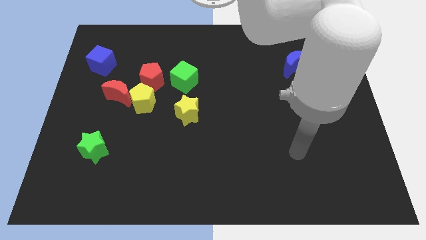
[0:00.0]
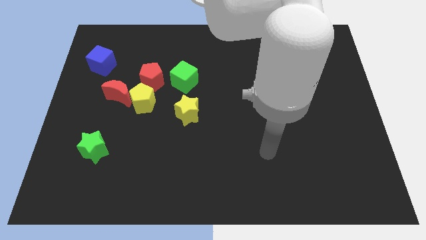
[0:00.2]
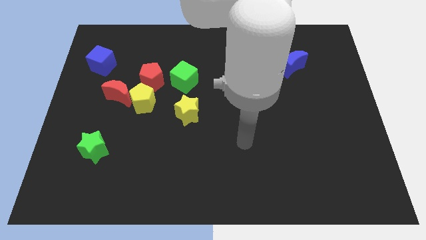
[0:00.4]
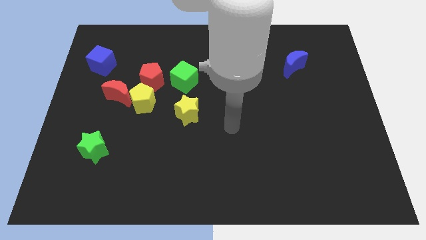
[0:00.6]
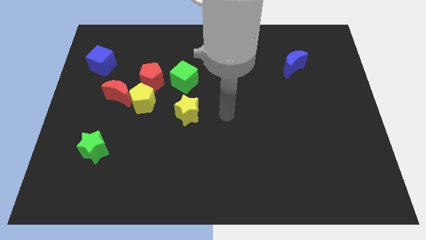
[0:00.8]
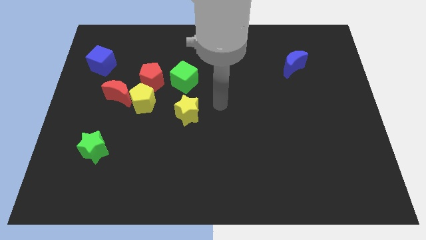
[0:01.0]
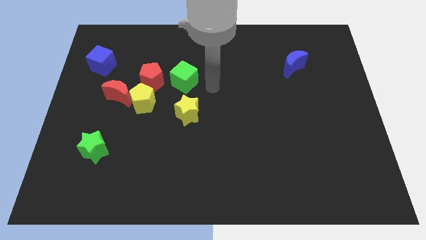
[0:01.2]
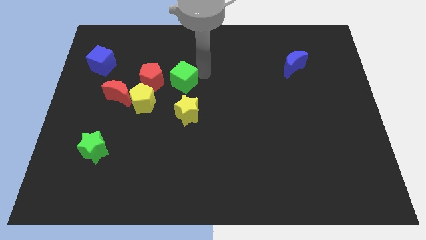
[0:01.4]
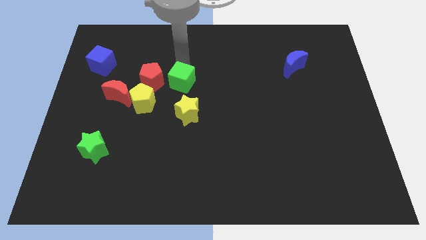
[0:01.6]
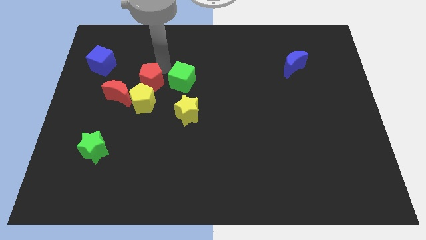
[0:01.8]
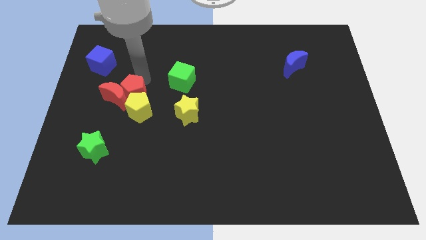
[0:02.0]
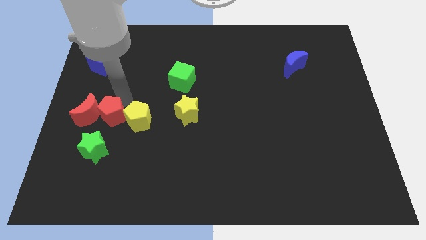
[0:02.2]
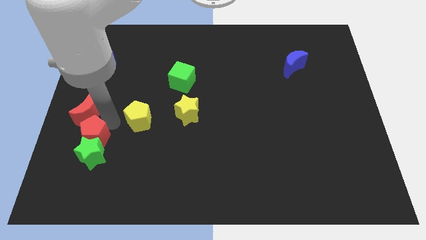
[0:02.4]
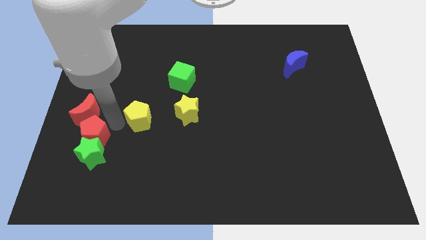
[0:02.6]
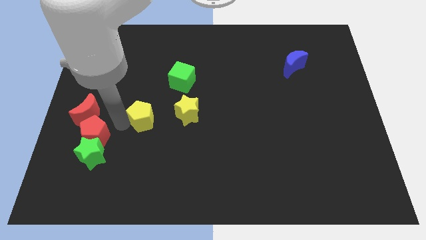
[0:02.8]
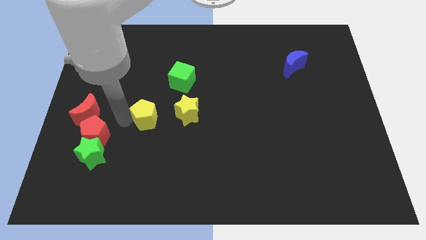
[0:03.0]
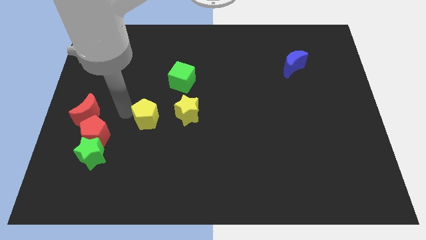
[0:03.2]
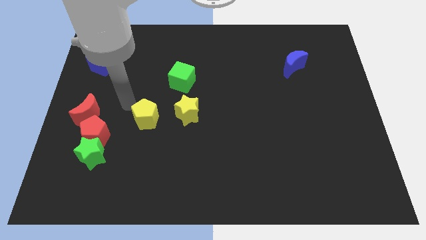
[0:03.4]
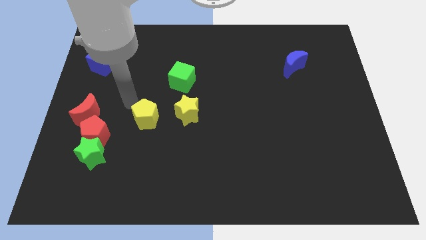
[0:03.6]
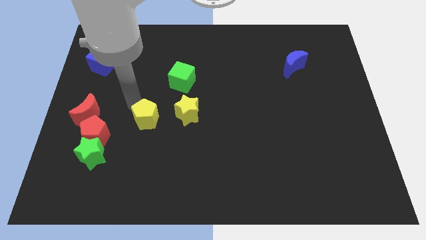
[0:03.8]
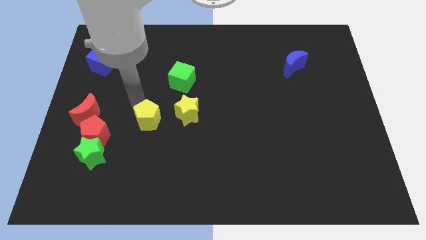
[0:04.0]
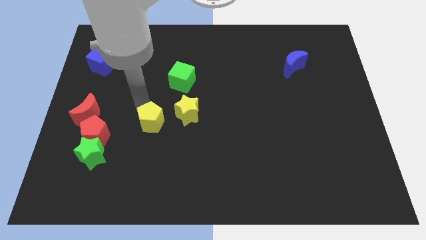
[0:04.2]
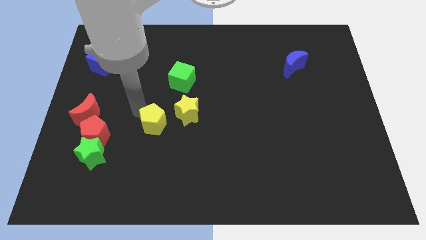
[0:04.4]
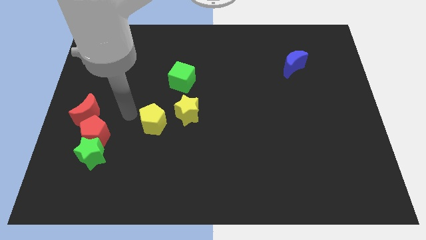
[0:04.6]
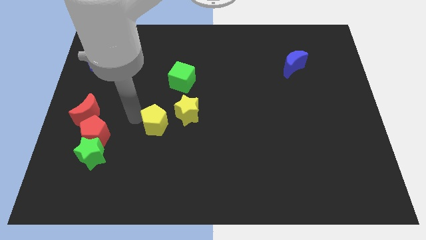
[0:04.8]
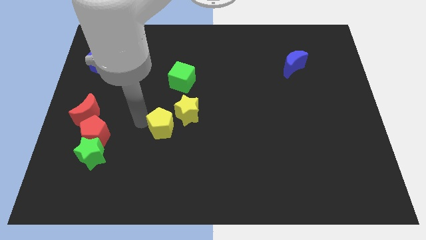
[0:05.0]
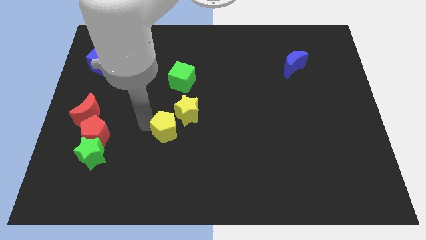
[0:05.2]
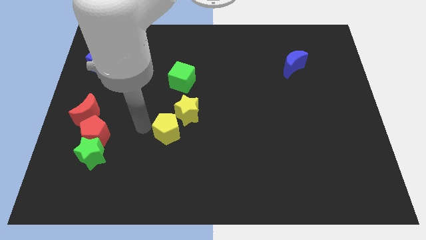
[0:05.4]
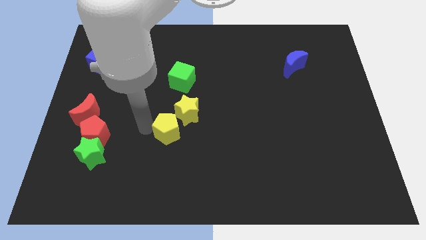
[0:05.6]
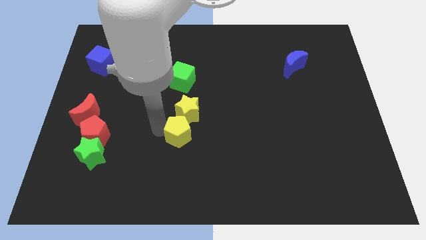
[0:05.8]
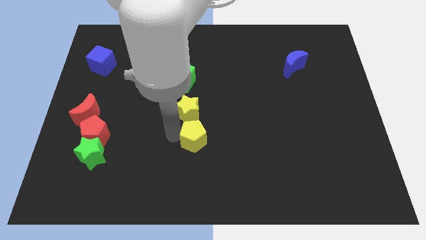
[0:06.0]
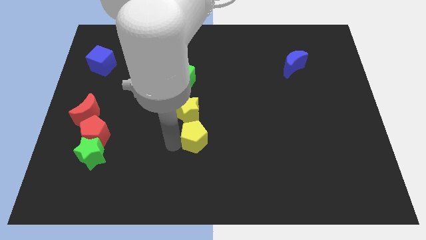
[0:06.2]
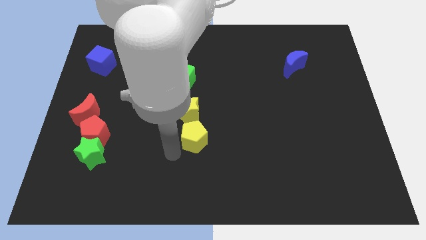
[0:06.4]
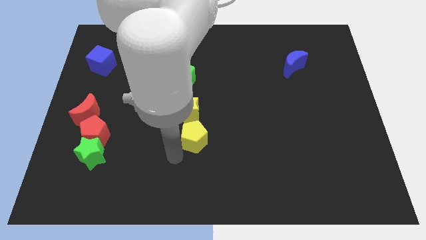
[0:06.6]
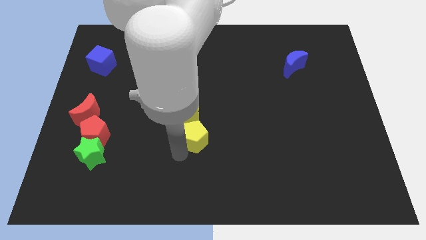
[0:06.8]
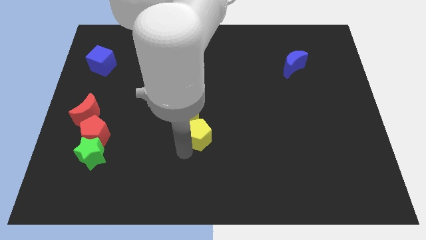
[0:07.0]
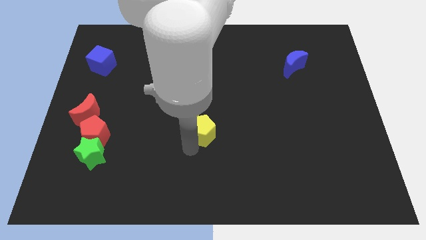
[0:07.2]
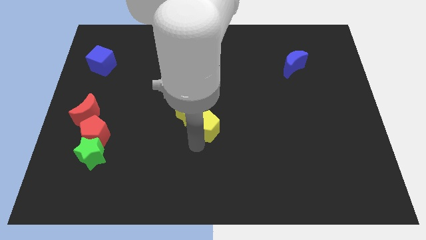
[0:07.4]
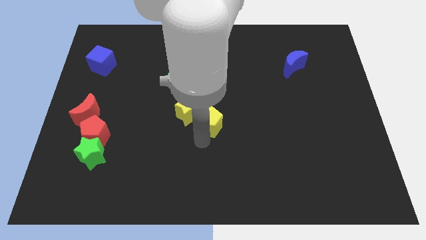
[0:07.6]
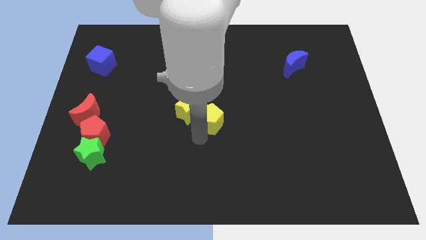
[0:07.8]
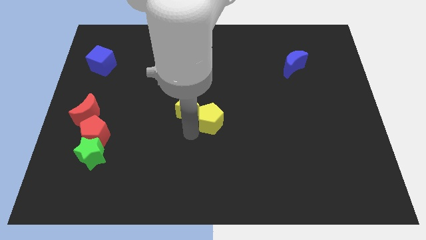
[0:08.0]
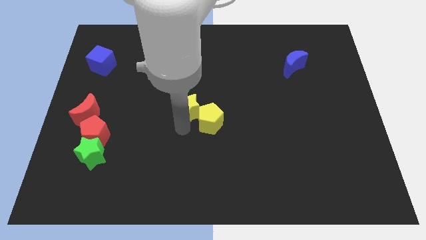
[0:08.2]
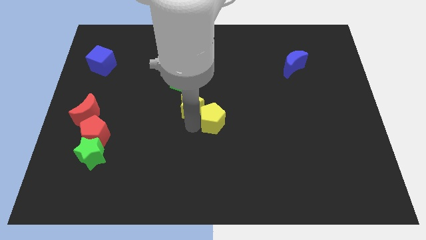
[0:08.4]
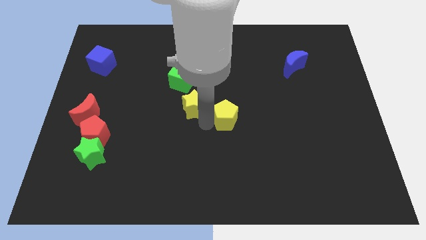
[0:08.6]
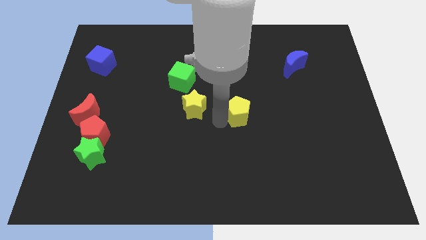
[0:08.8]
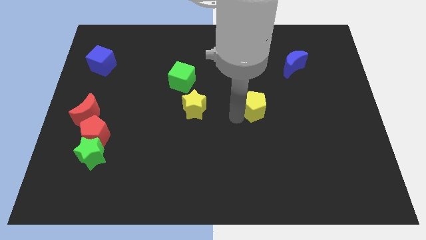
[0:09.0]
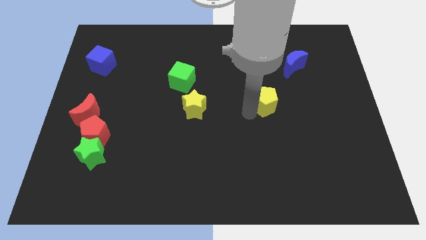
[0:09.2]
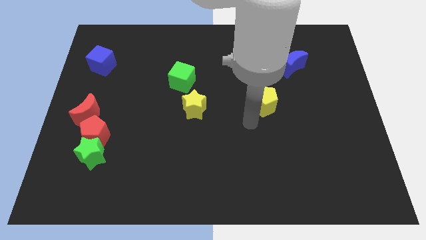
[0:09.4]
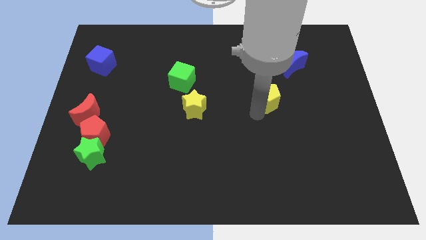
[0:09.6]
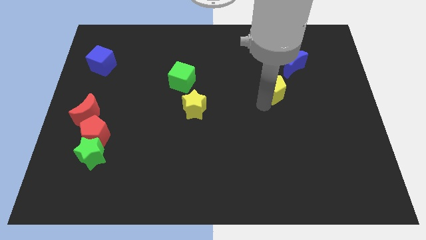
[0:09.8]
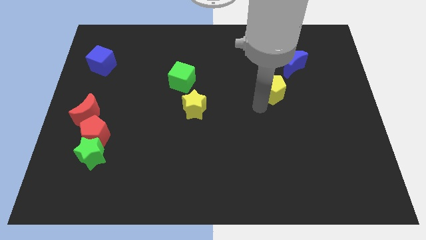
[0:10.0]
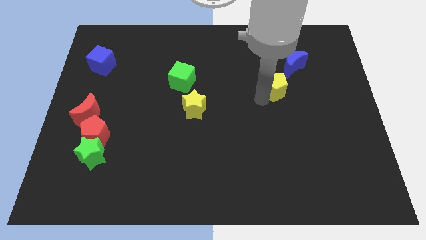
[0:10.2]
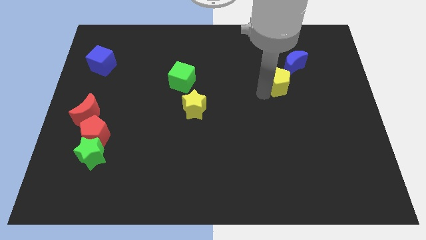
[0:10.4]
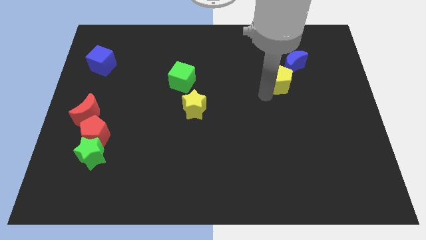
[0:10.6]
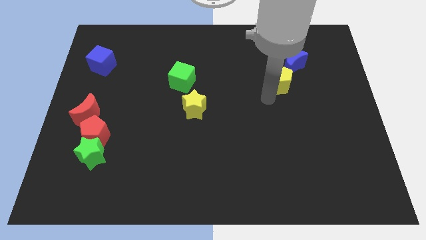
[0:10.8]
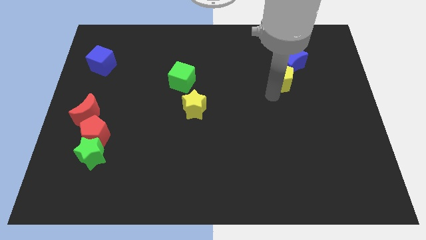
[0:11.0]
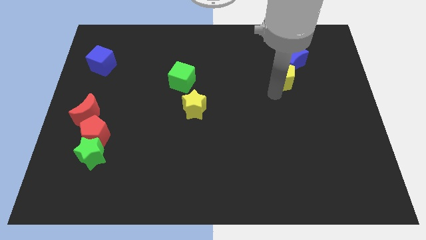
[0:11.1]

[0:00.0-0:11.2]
slide the yellow pentagon to the blue moon

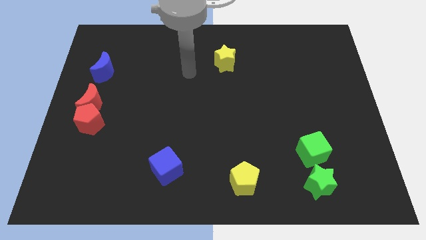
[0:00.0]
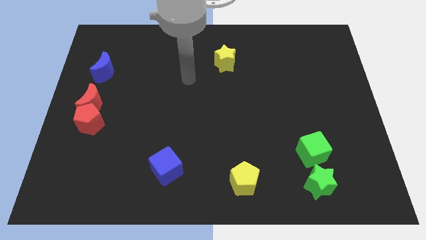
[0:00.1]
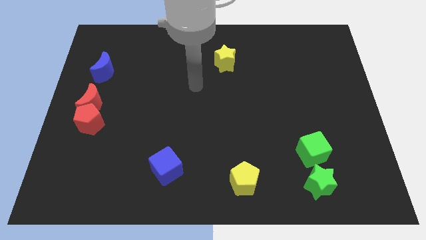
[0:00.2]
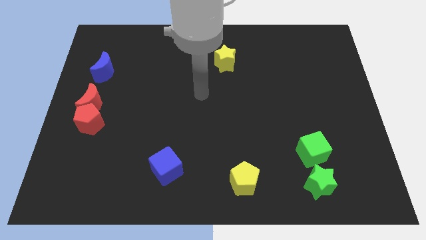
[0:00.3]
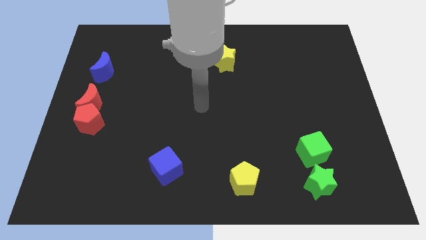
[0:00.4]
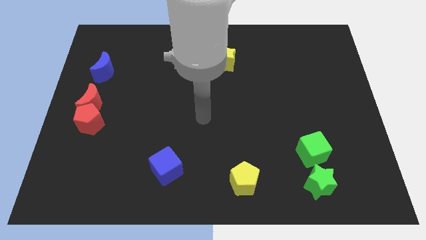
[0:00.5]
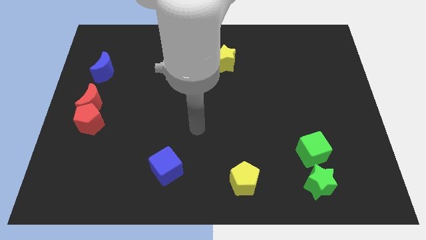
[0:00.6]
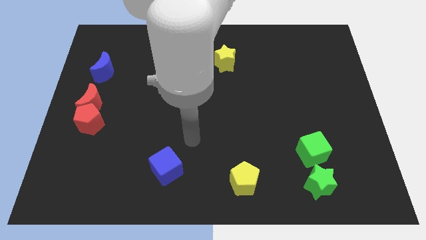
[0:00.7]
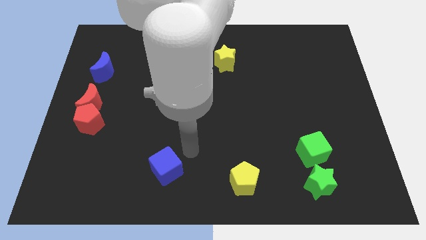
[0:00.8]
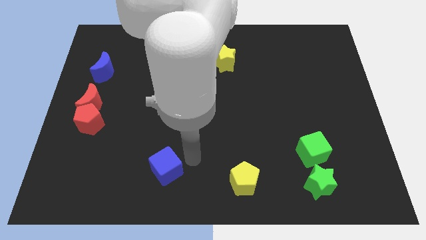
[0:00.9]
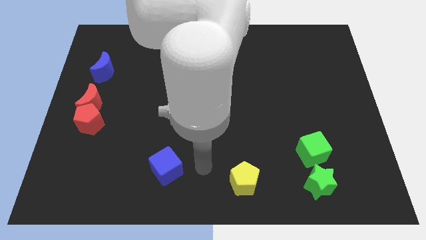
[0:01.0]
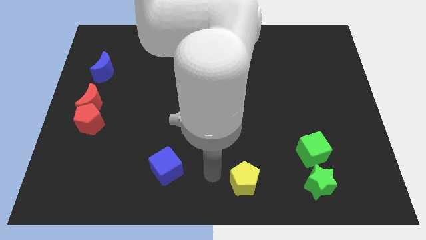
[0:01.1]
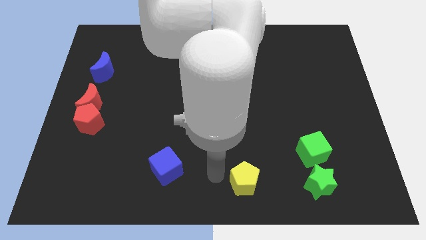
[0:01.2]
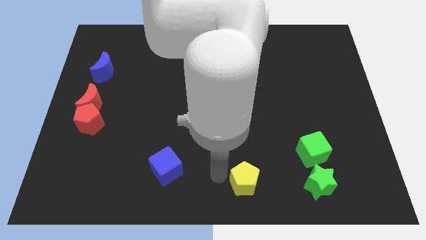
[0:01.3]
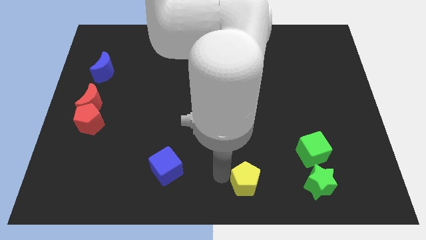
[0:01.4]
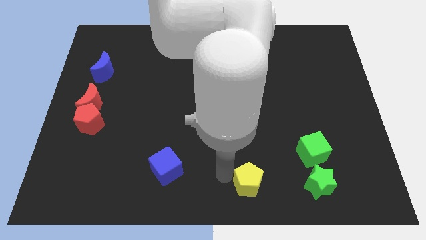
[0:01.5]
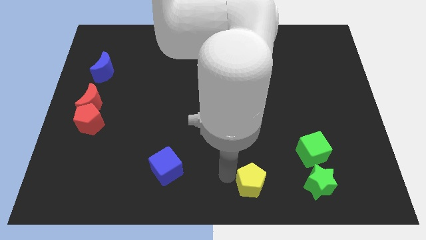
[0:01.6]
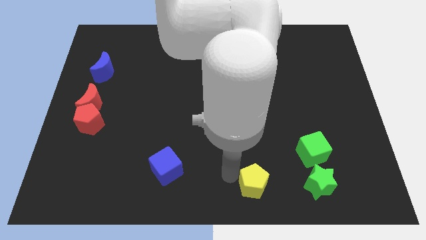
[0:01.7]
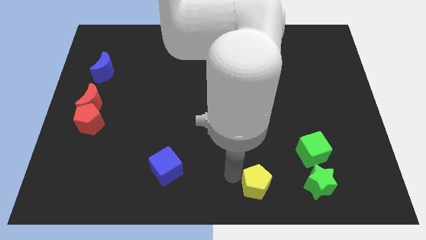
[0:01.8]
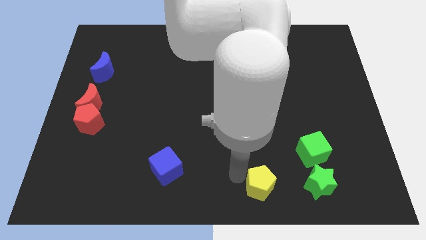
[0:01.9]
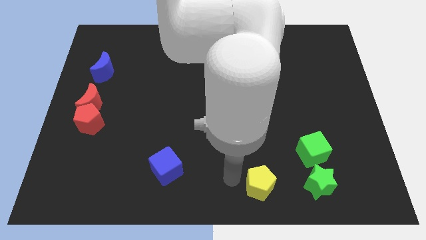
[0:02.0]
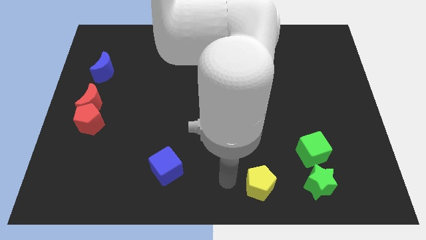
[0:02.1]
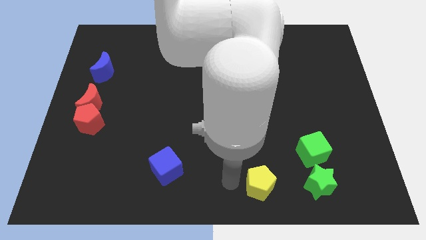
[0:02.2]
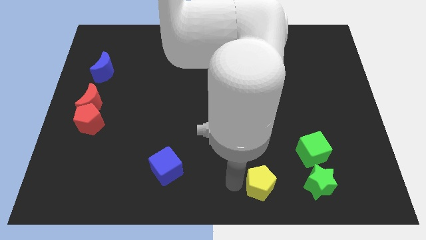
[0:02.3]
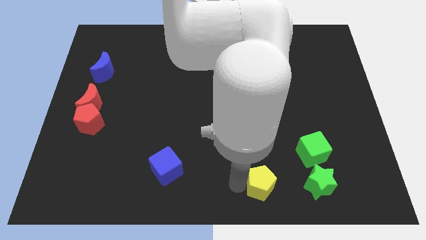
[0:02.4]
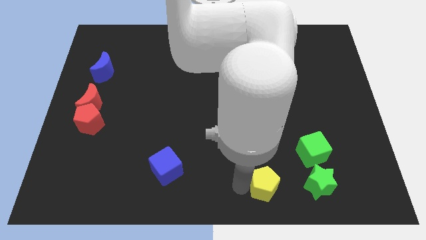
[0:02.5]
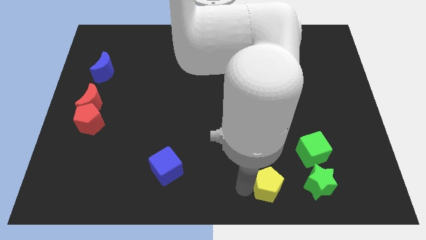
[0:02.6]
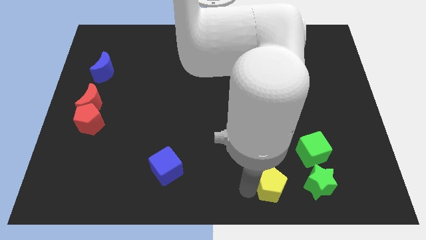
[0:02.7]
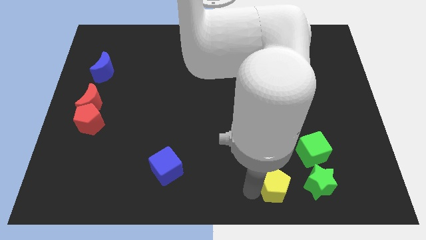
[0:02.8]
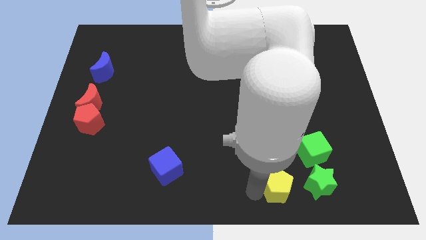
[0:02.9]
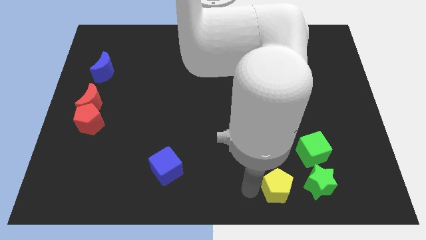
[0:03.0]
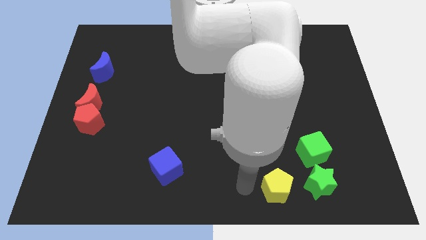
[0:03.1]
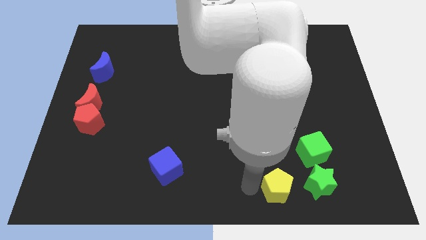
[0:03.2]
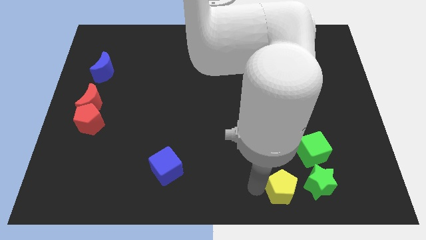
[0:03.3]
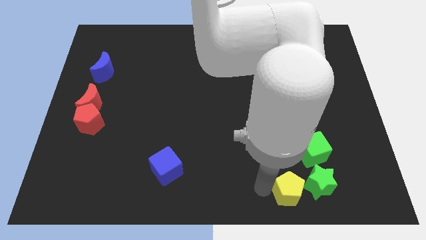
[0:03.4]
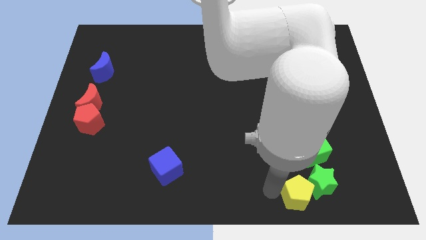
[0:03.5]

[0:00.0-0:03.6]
move the yellow pentagon towards the green star
